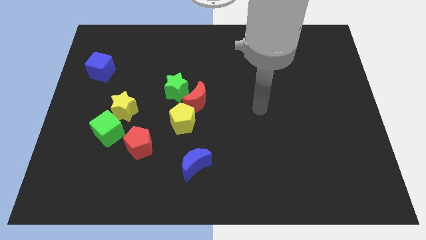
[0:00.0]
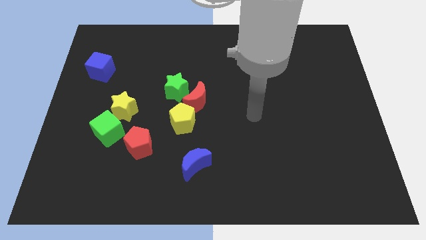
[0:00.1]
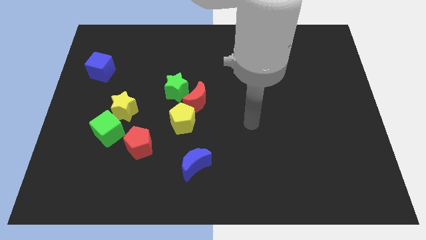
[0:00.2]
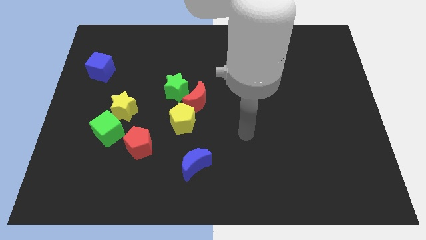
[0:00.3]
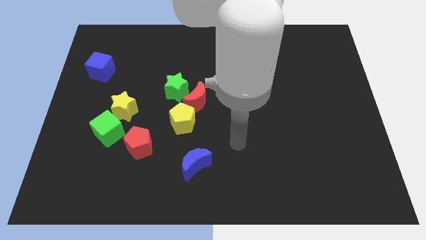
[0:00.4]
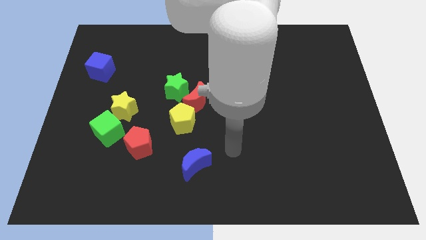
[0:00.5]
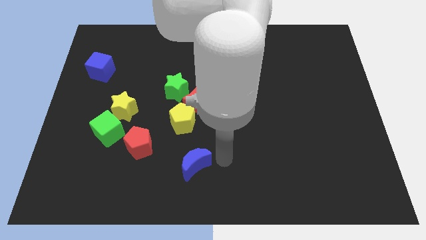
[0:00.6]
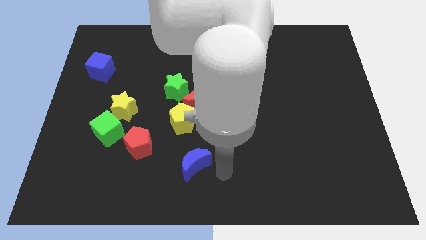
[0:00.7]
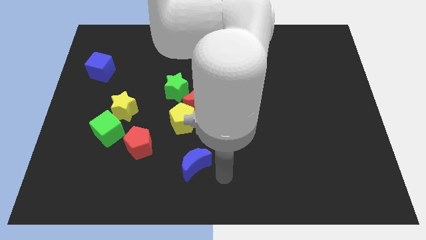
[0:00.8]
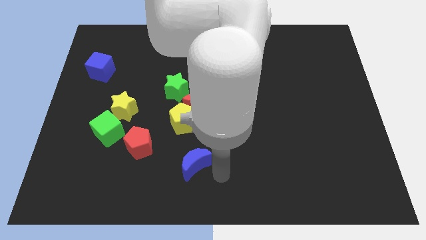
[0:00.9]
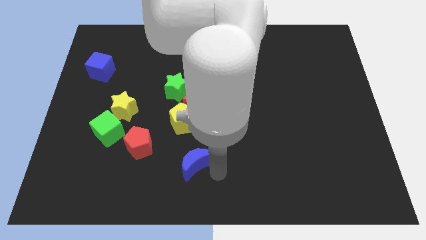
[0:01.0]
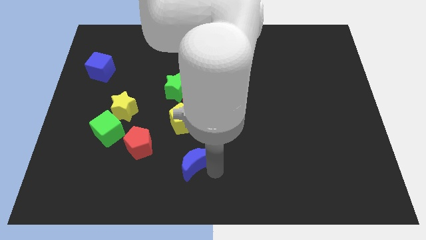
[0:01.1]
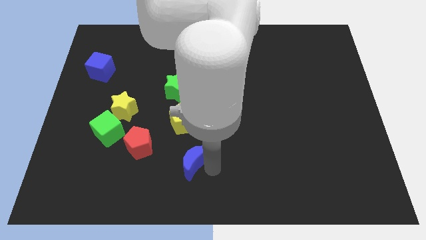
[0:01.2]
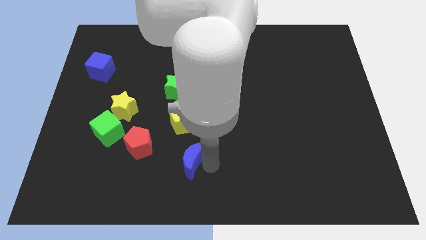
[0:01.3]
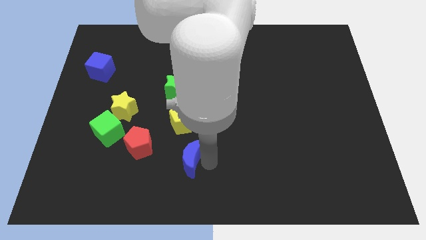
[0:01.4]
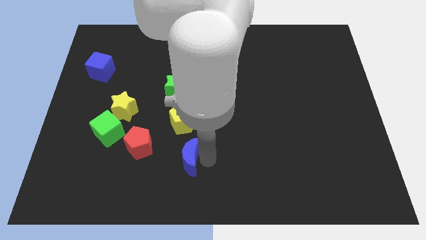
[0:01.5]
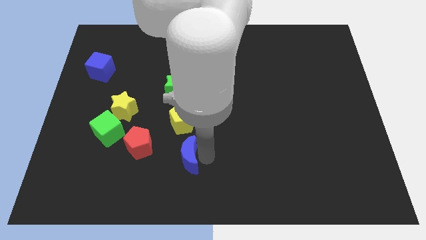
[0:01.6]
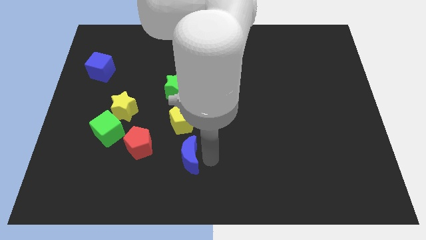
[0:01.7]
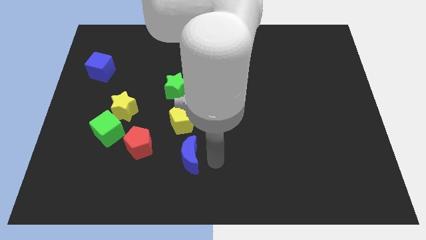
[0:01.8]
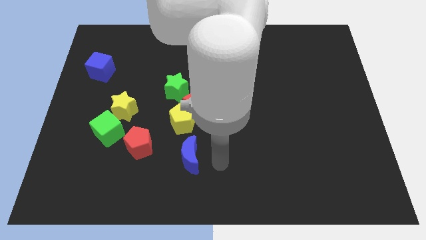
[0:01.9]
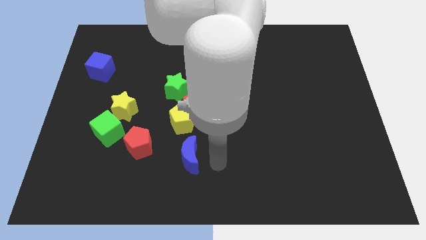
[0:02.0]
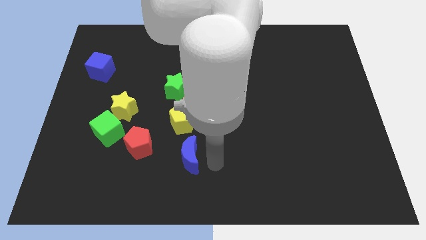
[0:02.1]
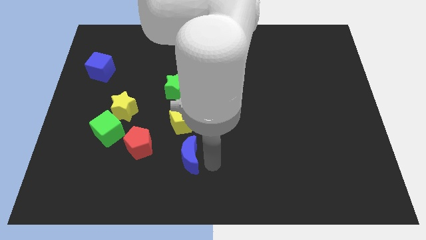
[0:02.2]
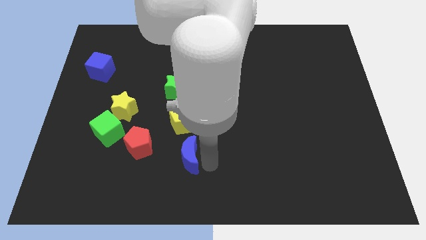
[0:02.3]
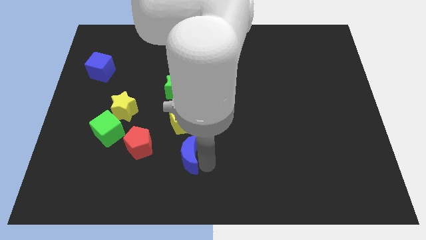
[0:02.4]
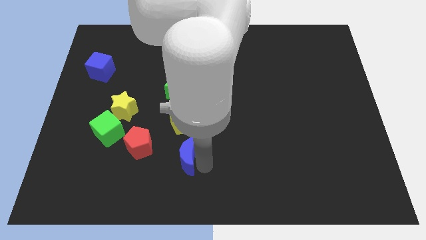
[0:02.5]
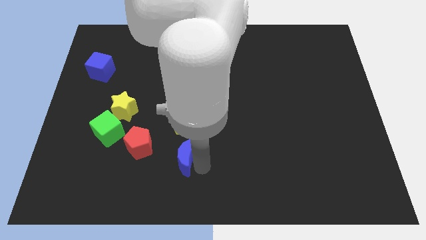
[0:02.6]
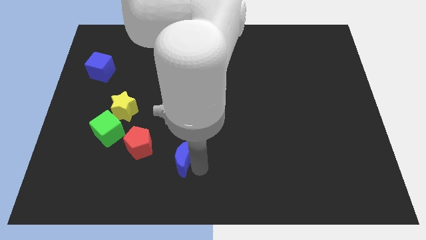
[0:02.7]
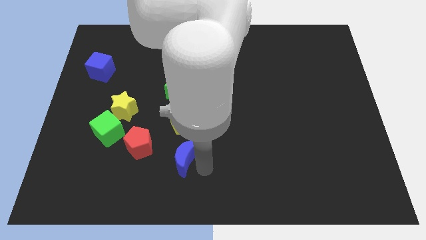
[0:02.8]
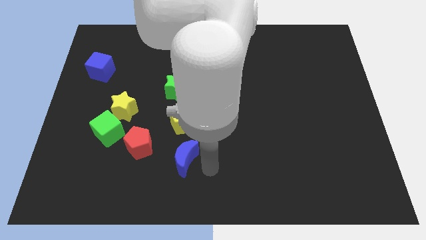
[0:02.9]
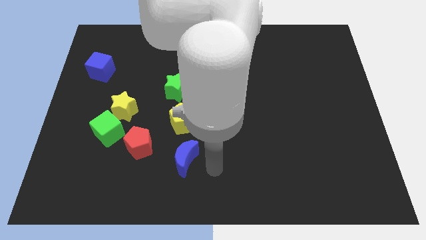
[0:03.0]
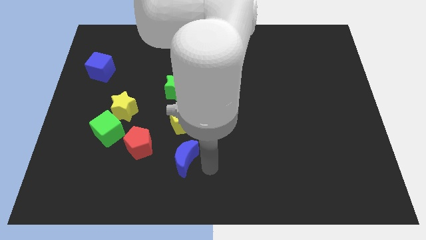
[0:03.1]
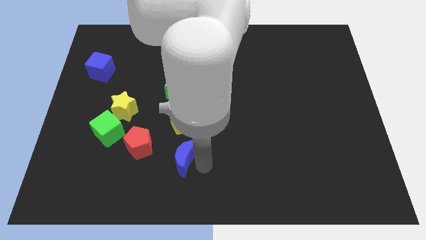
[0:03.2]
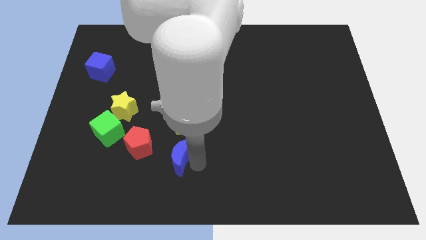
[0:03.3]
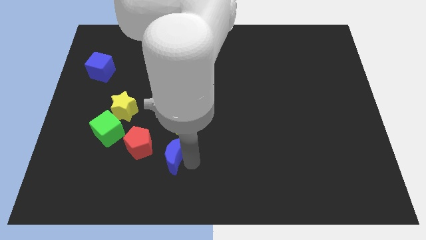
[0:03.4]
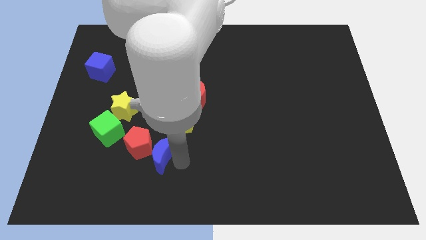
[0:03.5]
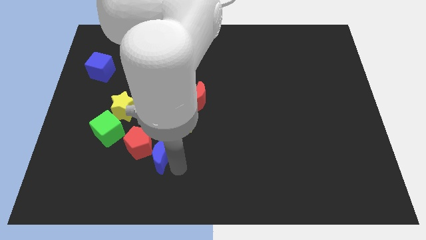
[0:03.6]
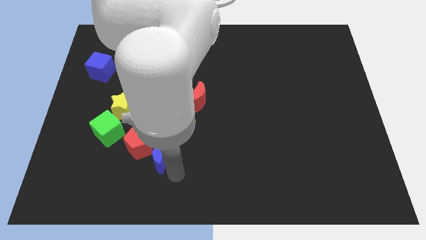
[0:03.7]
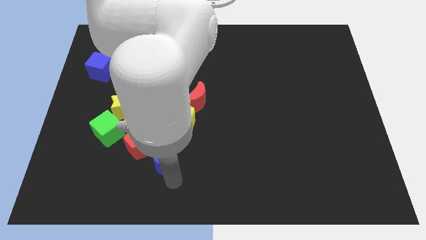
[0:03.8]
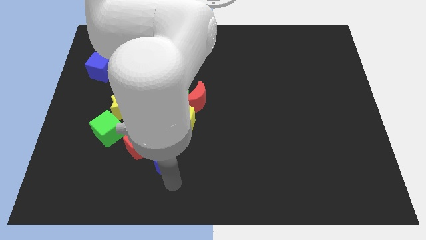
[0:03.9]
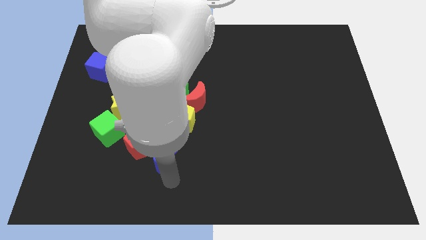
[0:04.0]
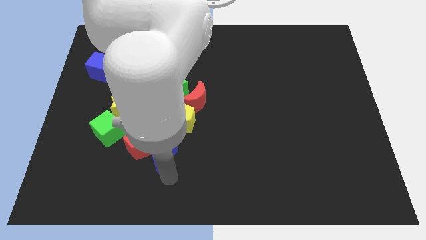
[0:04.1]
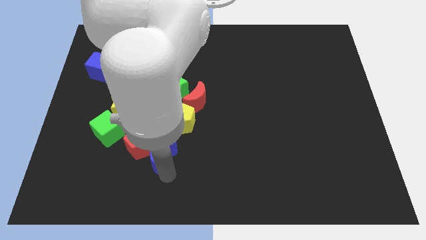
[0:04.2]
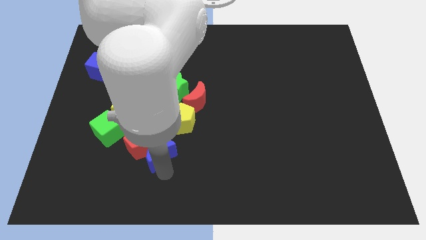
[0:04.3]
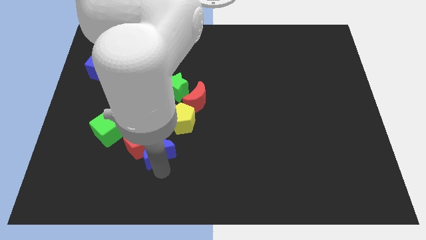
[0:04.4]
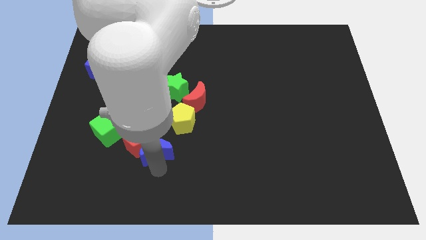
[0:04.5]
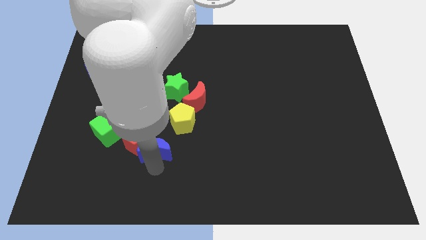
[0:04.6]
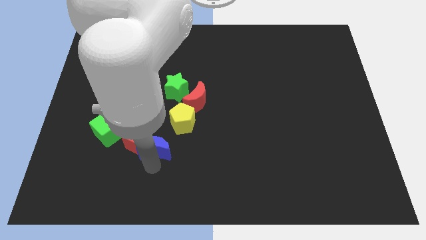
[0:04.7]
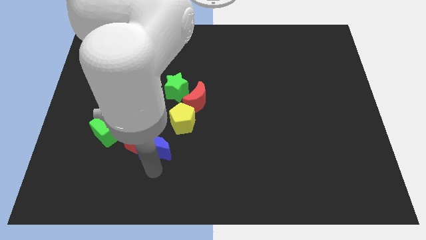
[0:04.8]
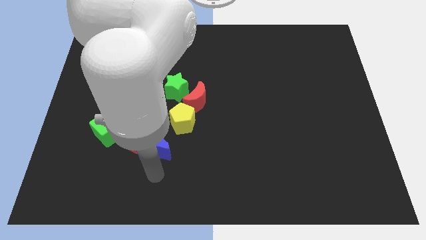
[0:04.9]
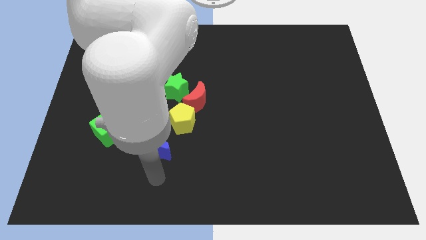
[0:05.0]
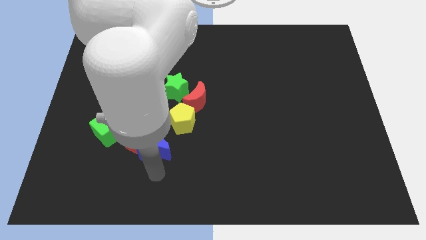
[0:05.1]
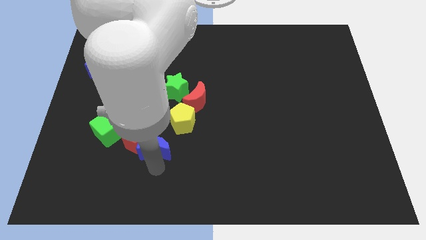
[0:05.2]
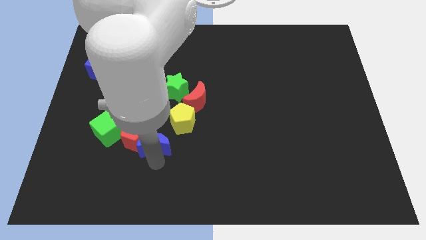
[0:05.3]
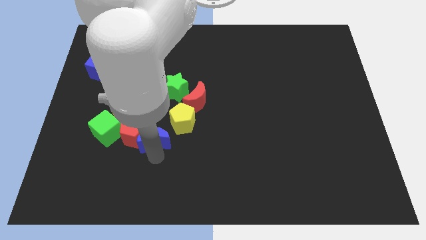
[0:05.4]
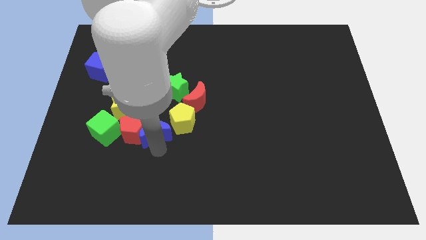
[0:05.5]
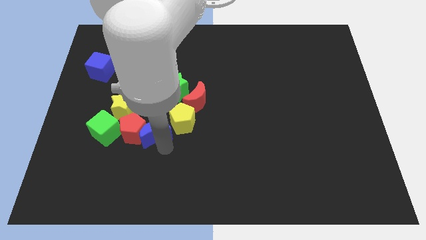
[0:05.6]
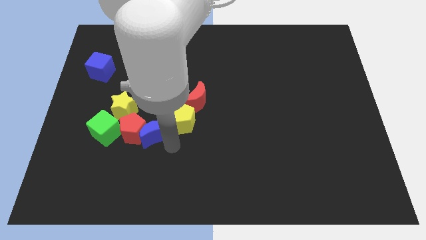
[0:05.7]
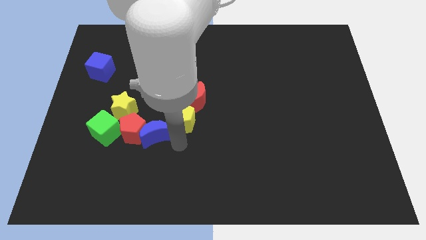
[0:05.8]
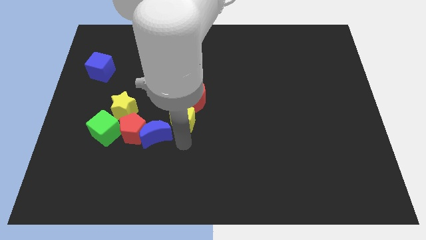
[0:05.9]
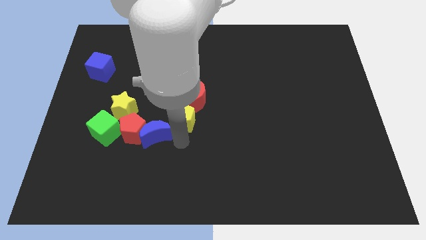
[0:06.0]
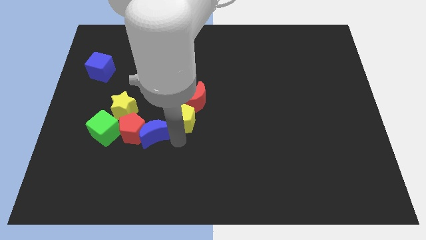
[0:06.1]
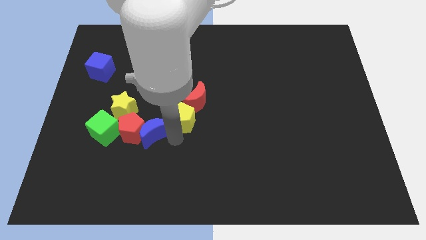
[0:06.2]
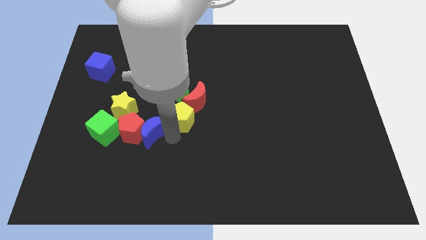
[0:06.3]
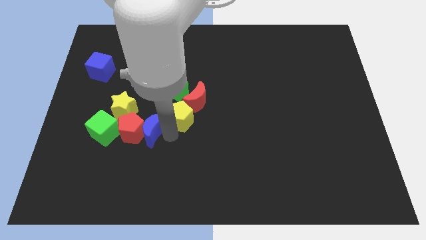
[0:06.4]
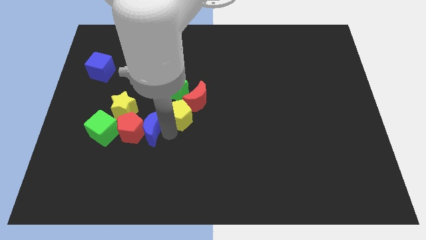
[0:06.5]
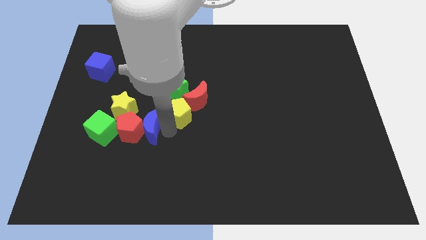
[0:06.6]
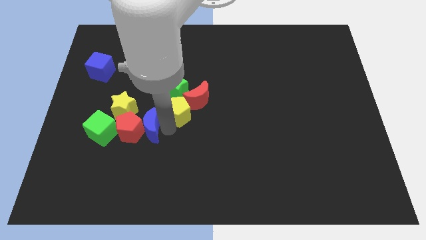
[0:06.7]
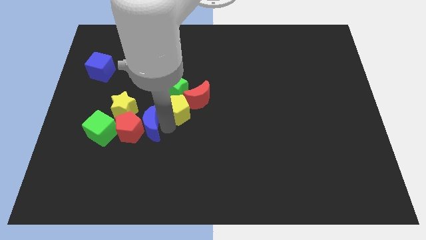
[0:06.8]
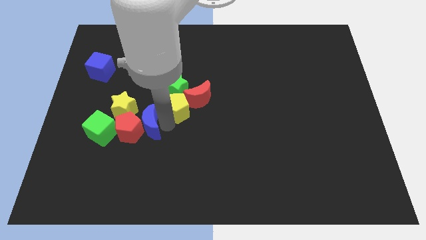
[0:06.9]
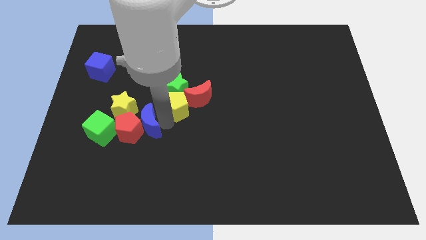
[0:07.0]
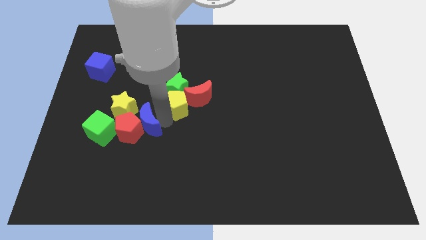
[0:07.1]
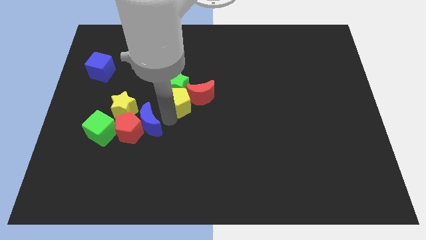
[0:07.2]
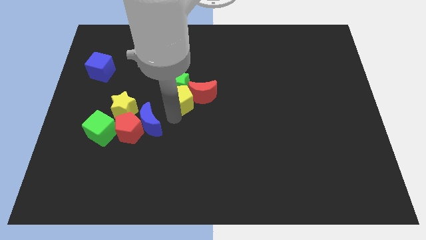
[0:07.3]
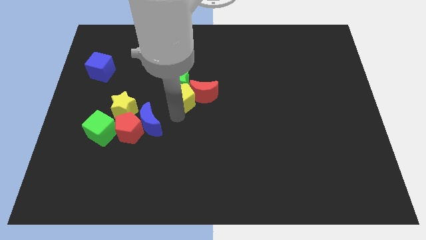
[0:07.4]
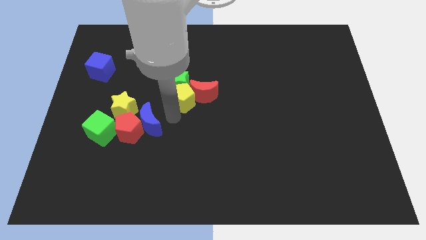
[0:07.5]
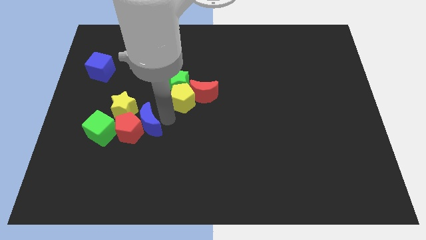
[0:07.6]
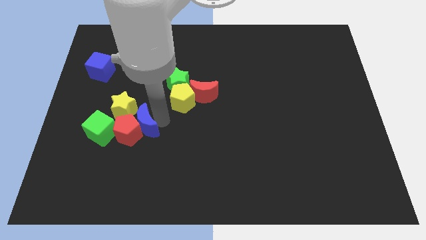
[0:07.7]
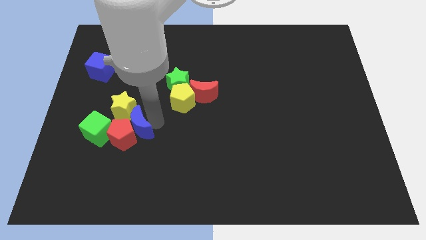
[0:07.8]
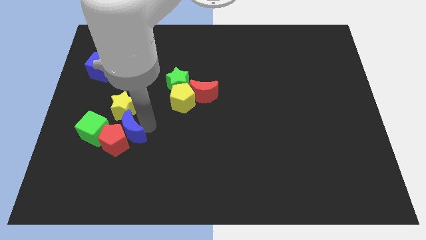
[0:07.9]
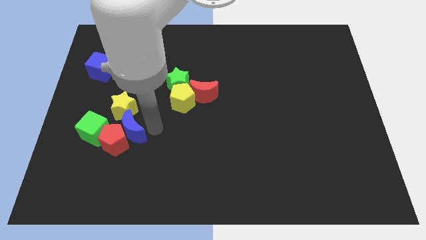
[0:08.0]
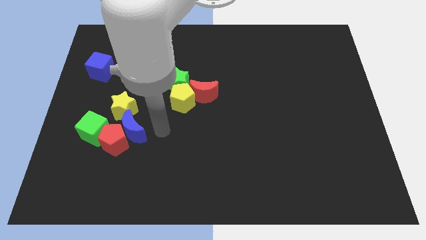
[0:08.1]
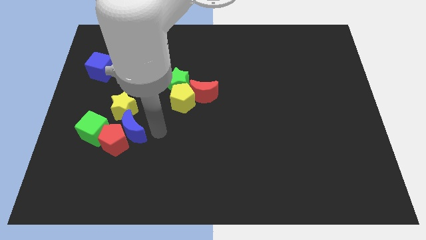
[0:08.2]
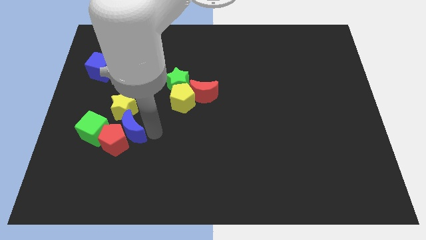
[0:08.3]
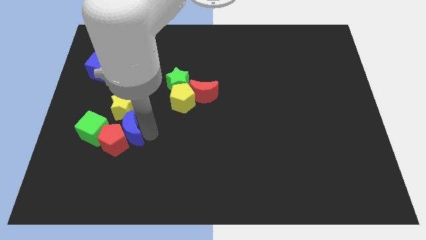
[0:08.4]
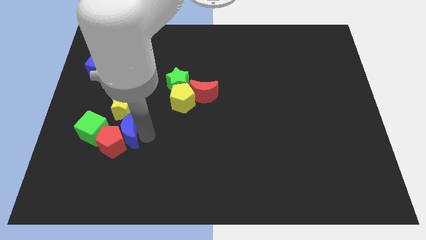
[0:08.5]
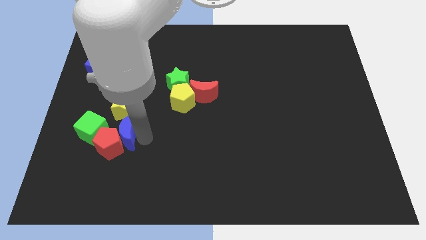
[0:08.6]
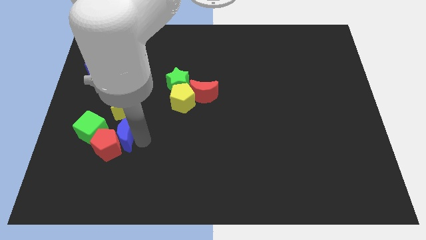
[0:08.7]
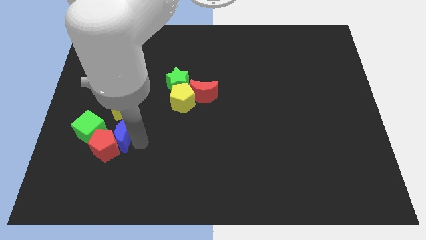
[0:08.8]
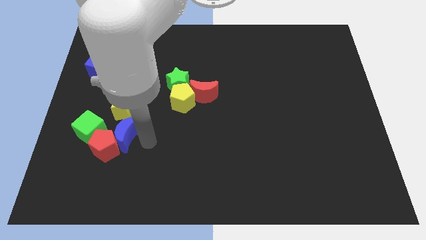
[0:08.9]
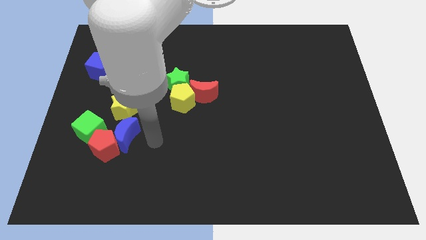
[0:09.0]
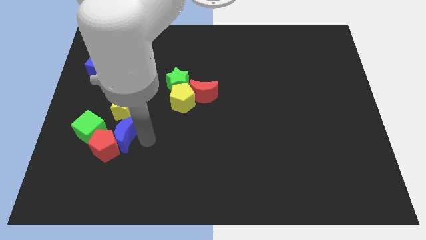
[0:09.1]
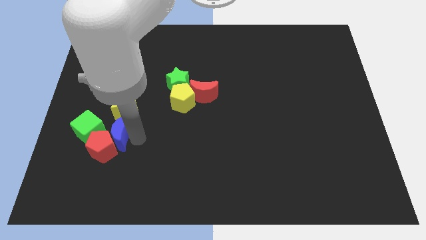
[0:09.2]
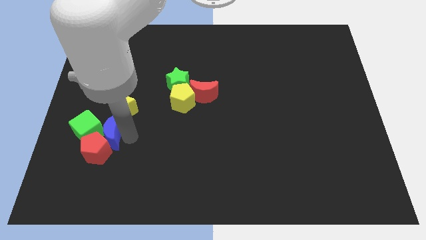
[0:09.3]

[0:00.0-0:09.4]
slide the blue moon next to the green cube
